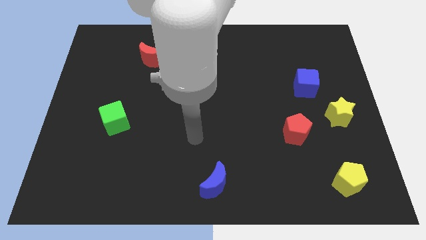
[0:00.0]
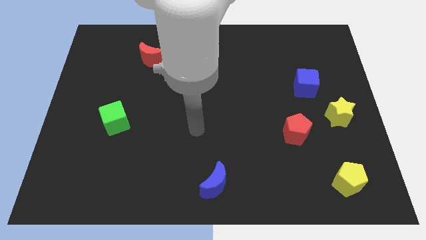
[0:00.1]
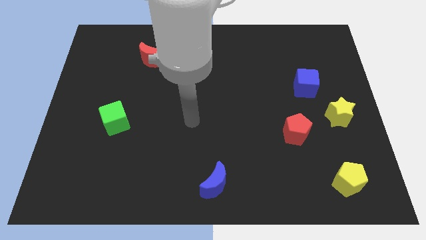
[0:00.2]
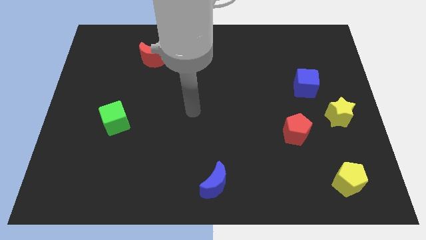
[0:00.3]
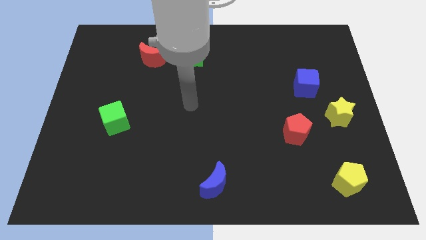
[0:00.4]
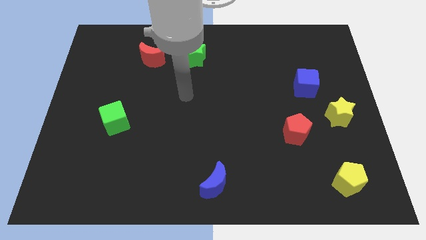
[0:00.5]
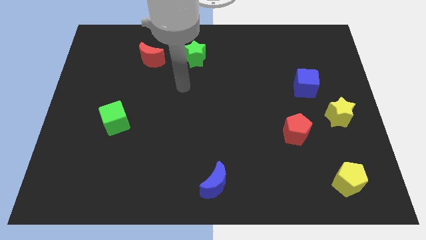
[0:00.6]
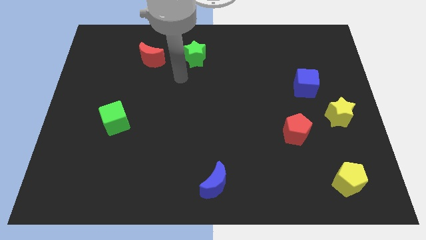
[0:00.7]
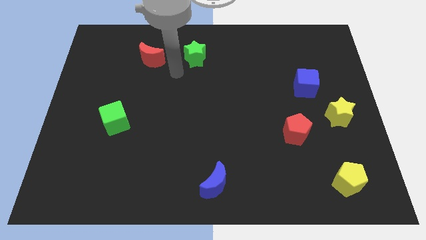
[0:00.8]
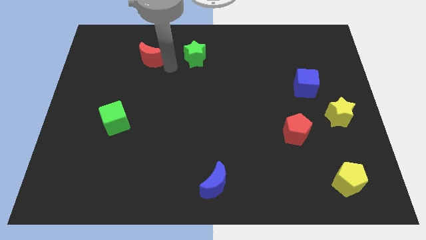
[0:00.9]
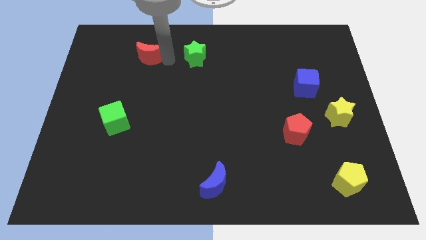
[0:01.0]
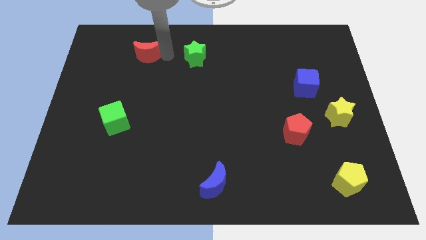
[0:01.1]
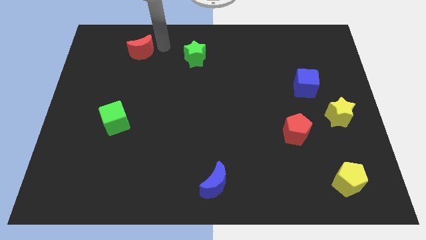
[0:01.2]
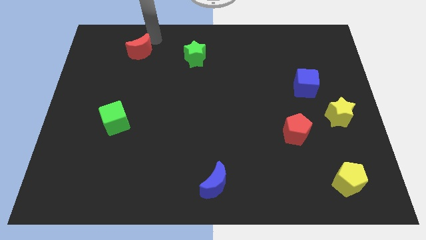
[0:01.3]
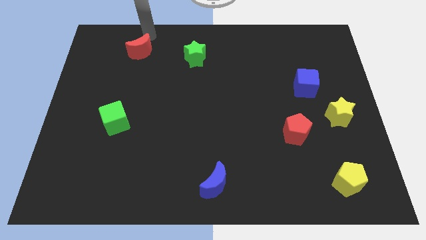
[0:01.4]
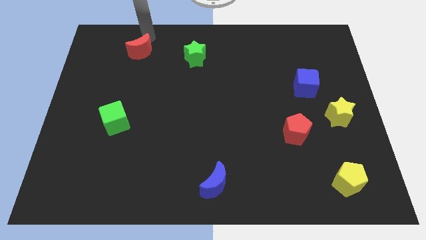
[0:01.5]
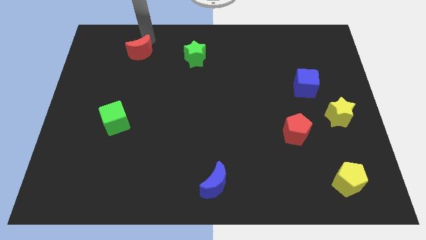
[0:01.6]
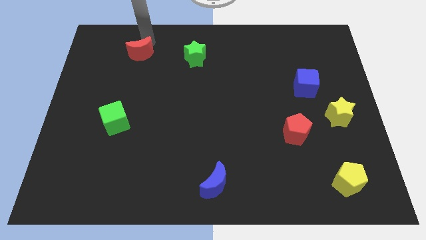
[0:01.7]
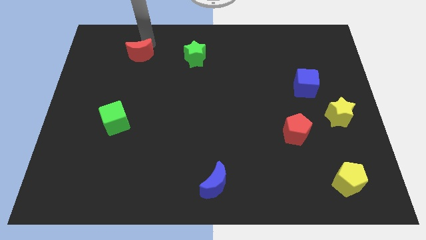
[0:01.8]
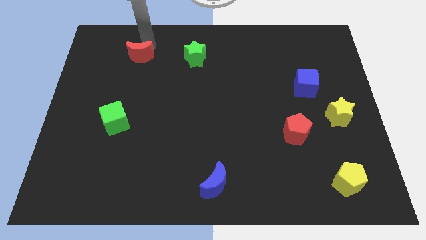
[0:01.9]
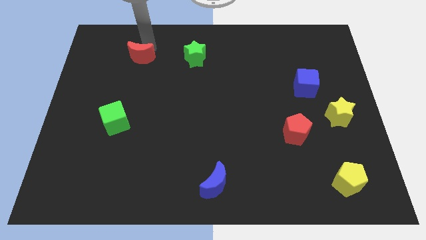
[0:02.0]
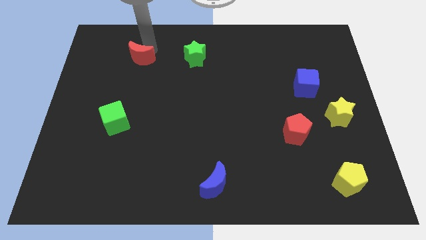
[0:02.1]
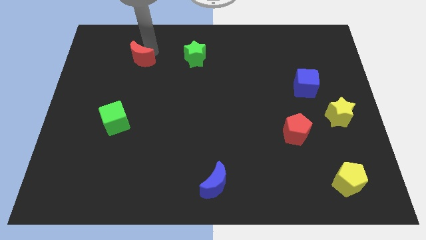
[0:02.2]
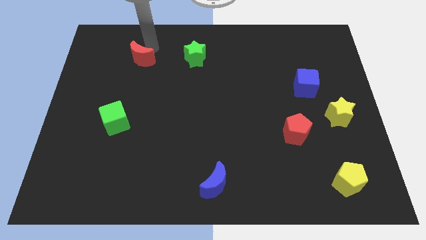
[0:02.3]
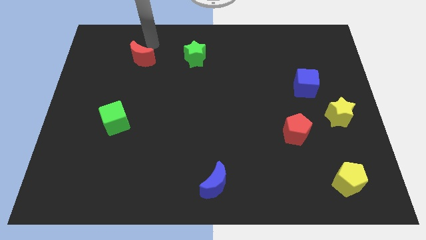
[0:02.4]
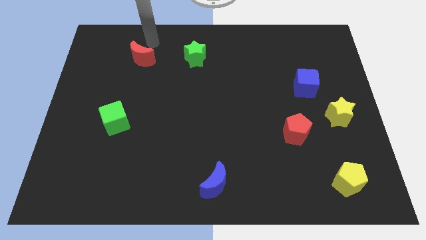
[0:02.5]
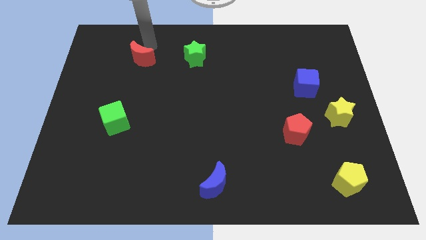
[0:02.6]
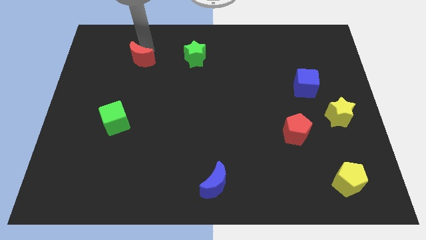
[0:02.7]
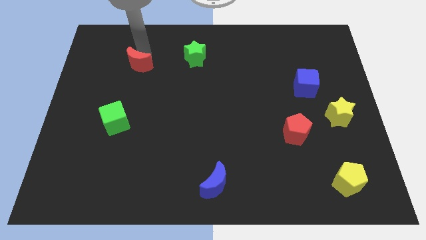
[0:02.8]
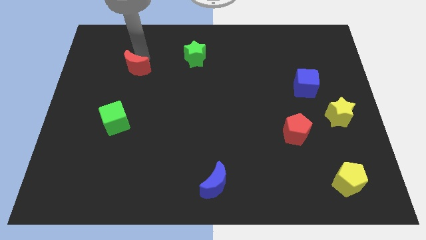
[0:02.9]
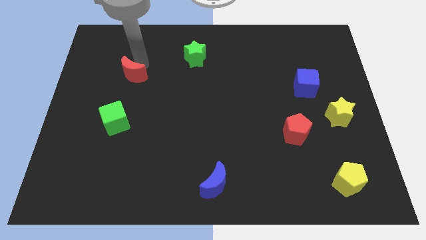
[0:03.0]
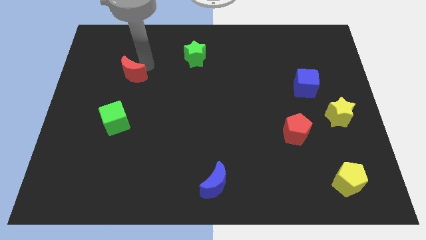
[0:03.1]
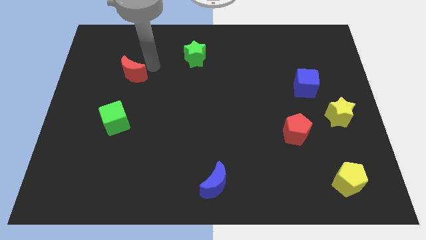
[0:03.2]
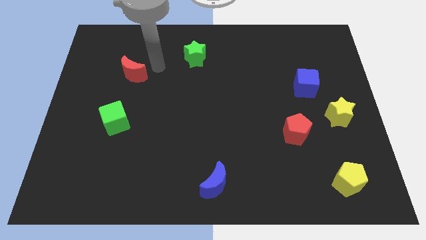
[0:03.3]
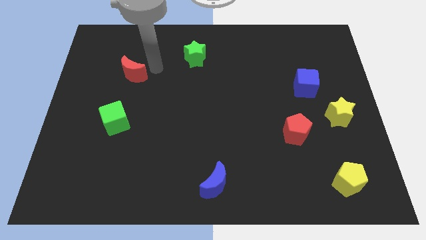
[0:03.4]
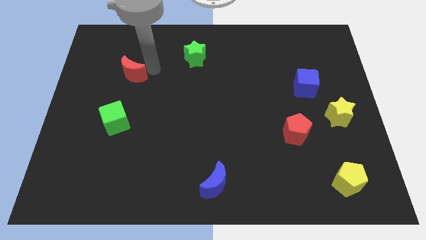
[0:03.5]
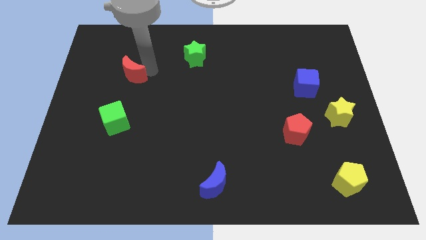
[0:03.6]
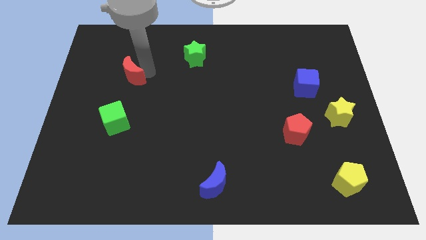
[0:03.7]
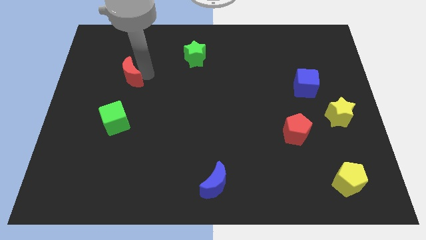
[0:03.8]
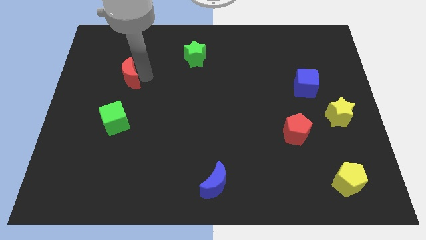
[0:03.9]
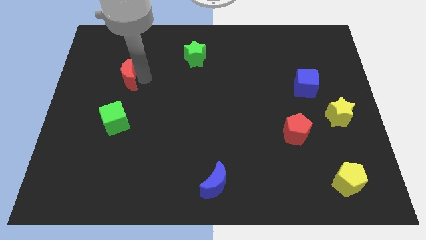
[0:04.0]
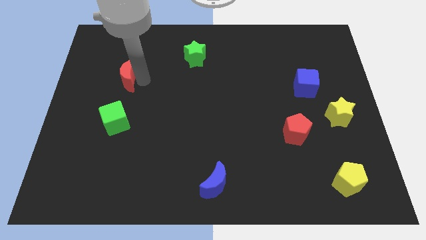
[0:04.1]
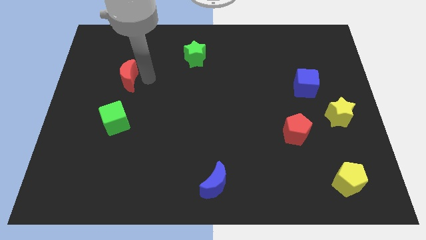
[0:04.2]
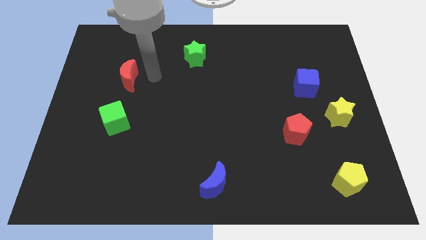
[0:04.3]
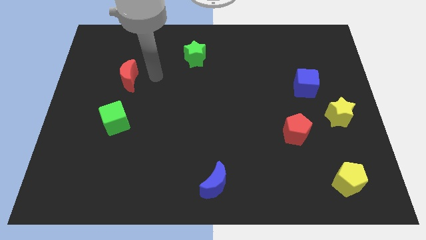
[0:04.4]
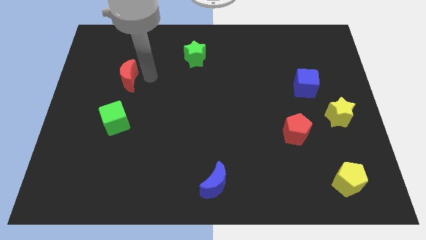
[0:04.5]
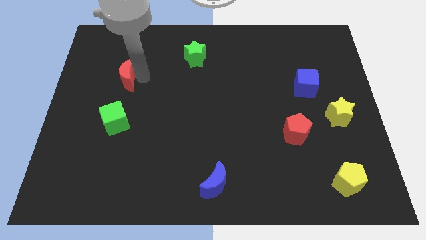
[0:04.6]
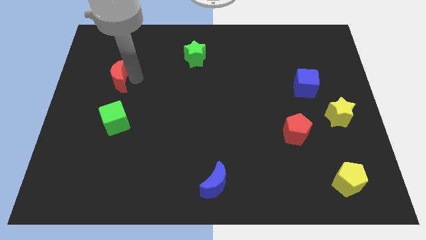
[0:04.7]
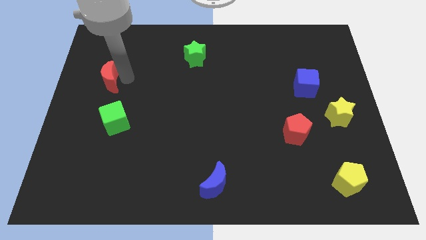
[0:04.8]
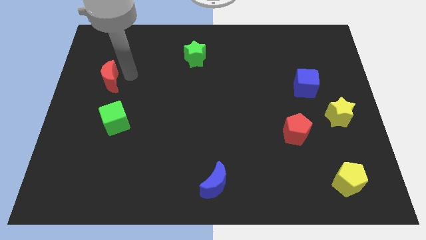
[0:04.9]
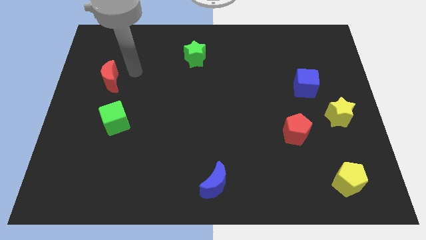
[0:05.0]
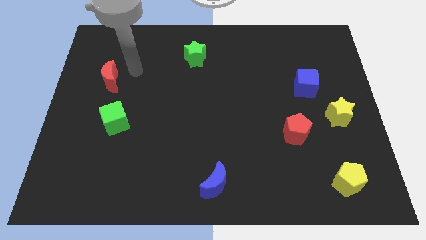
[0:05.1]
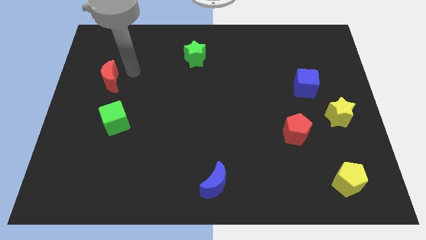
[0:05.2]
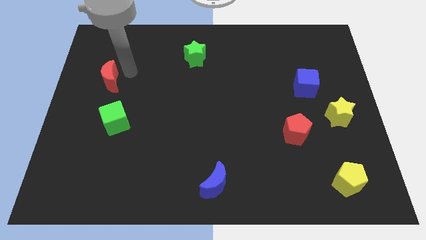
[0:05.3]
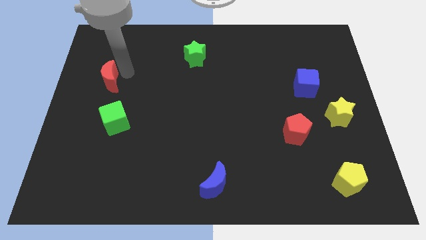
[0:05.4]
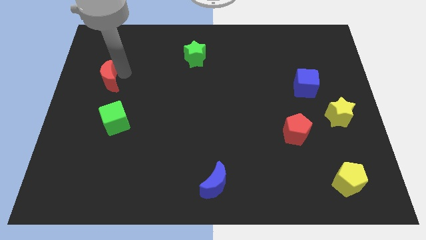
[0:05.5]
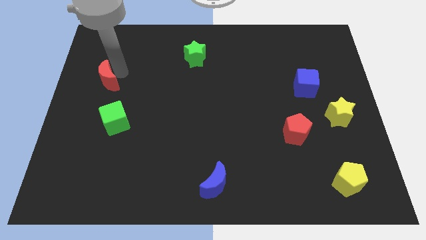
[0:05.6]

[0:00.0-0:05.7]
move the red moon to the left side

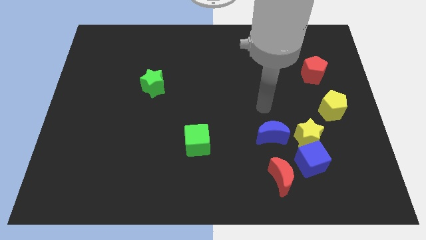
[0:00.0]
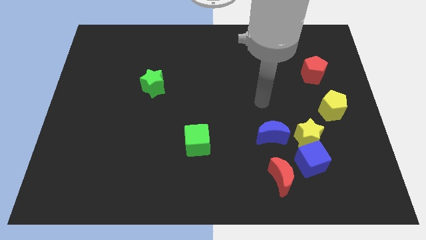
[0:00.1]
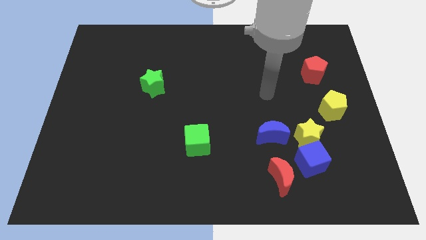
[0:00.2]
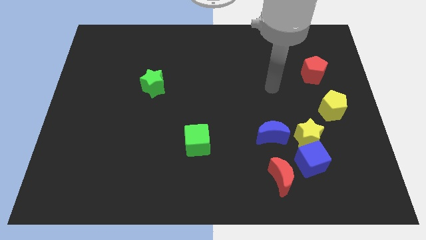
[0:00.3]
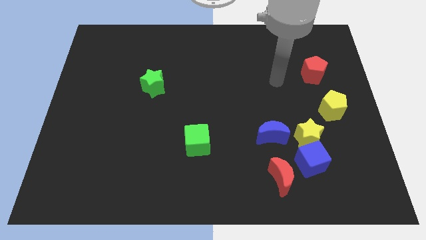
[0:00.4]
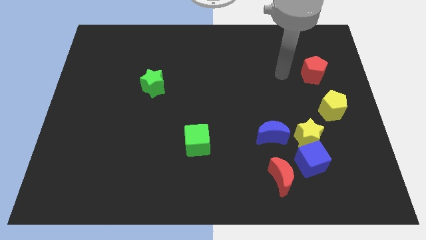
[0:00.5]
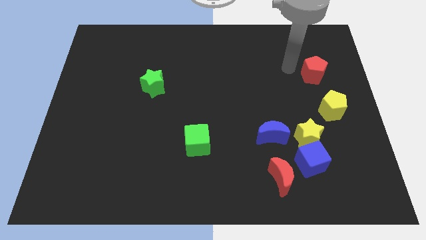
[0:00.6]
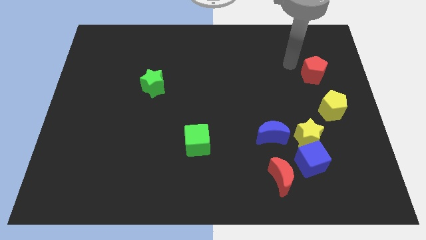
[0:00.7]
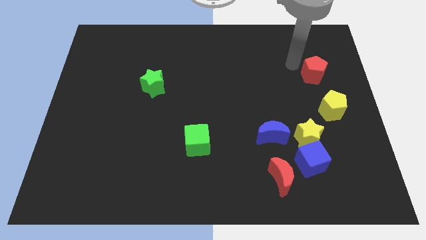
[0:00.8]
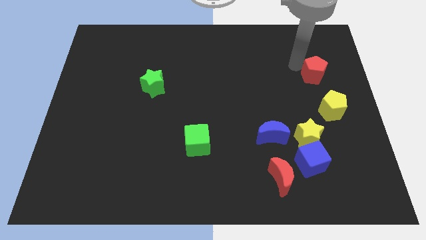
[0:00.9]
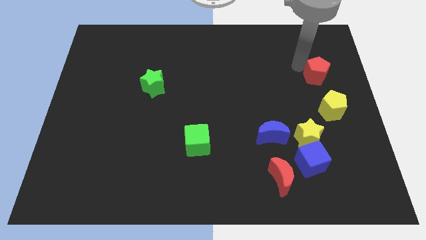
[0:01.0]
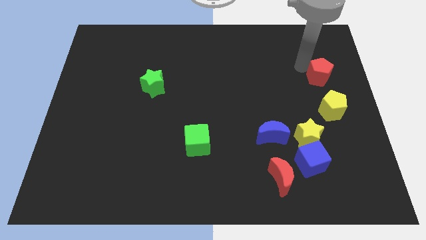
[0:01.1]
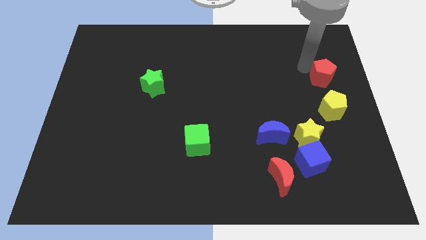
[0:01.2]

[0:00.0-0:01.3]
put the red pentagon to the center right
